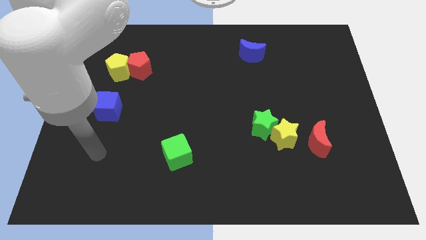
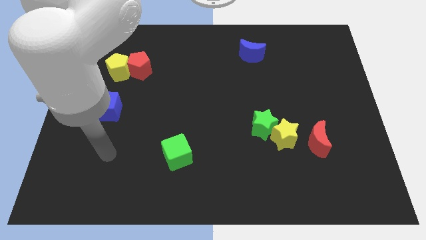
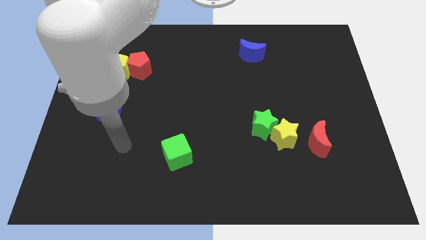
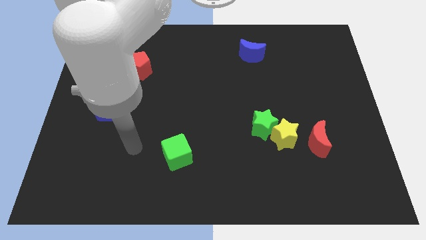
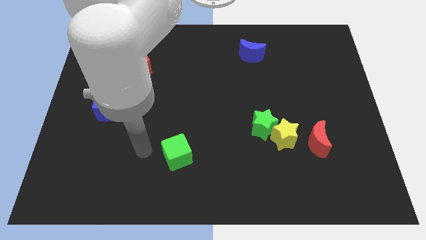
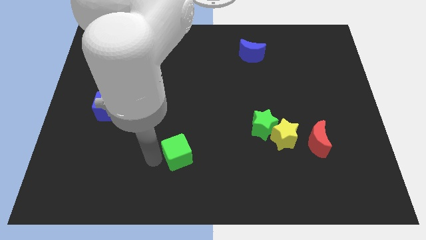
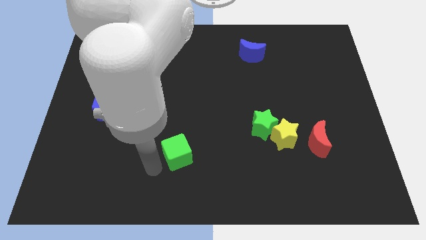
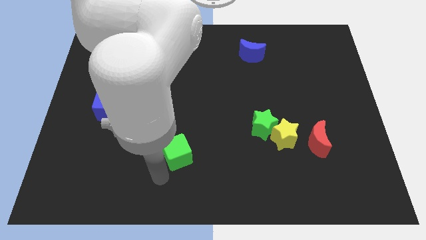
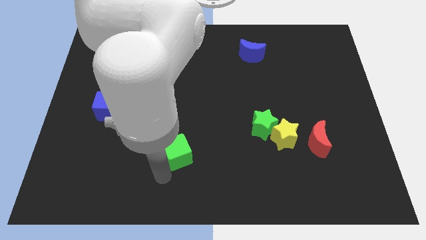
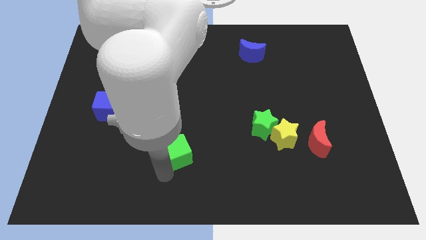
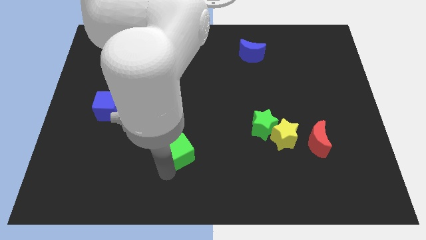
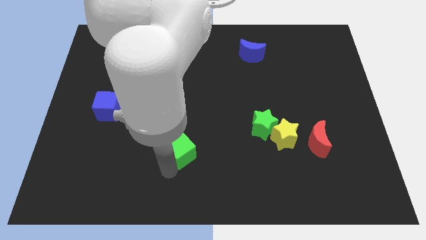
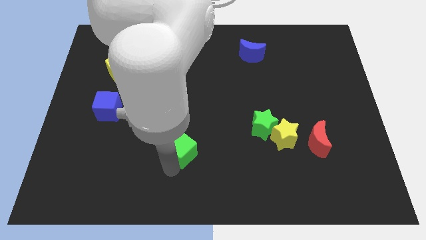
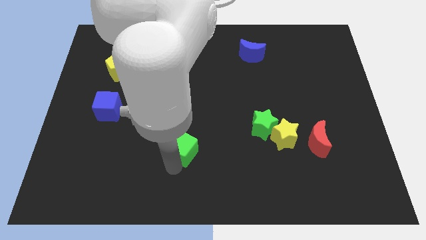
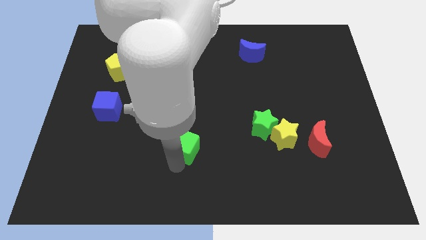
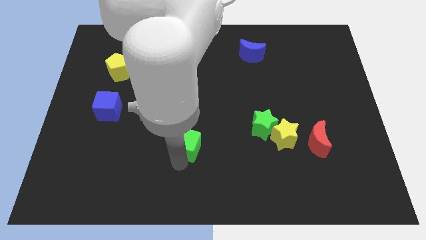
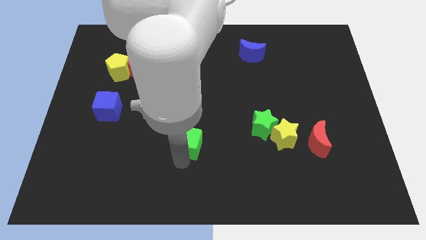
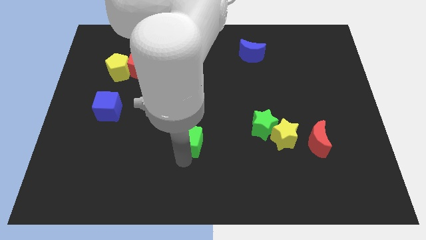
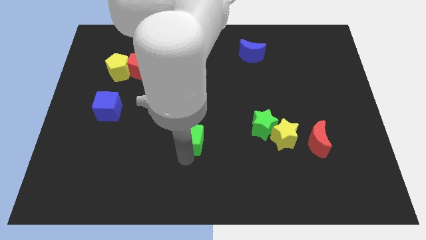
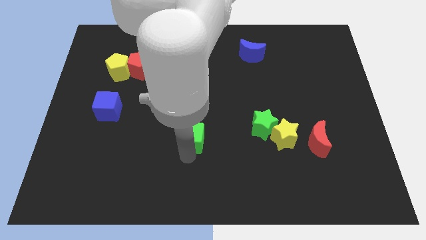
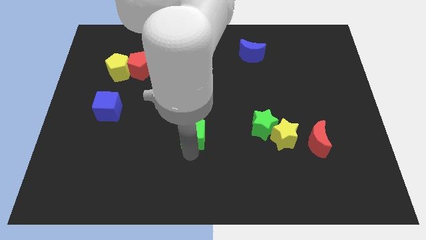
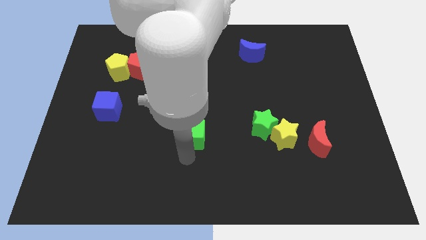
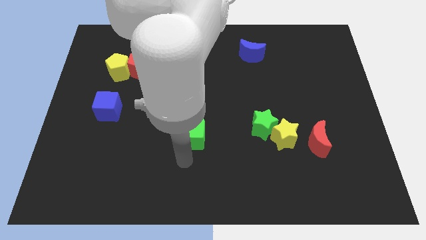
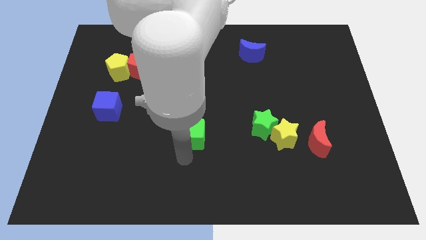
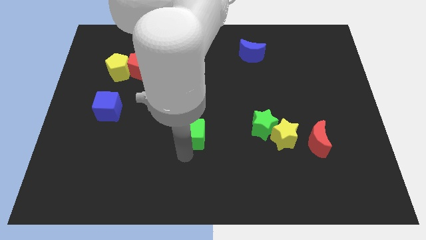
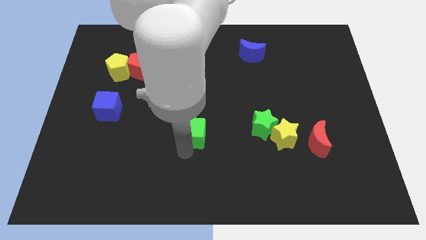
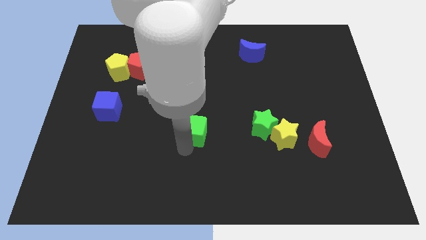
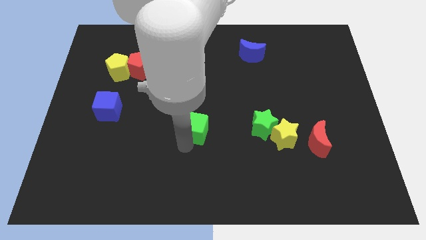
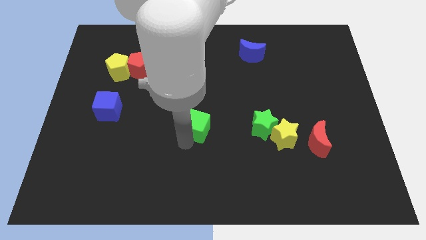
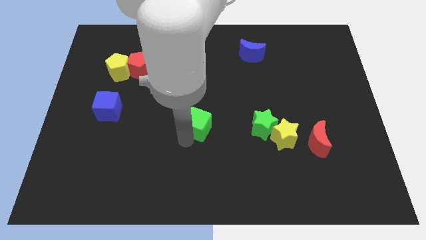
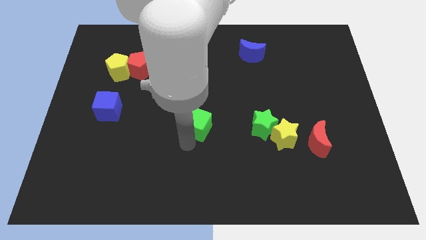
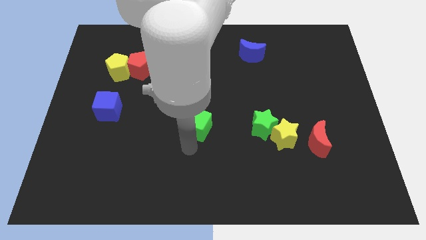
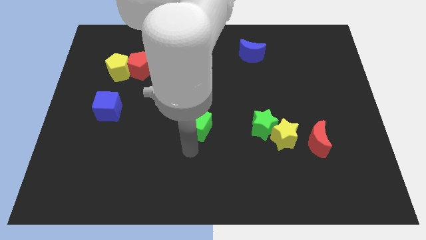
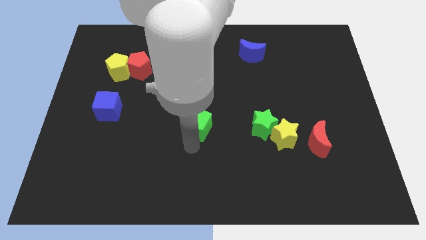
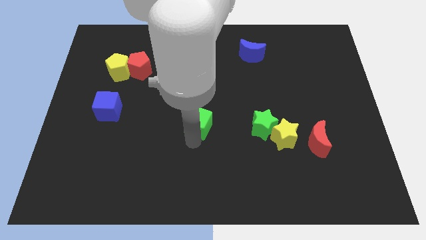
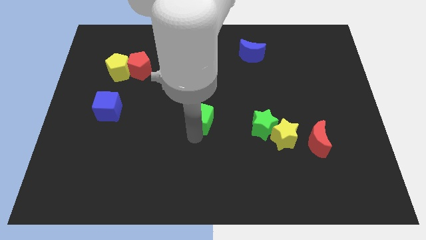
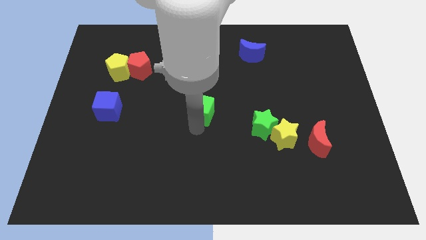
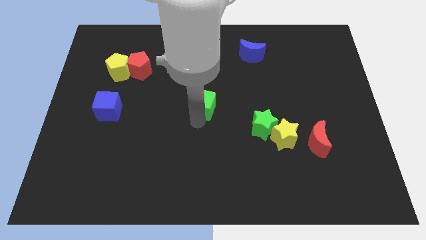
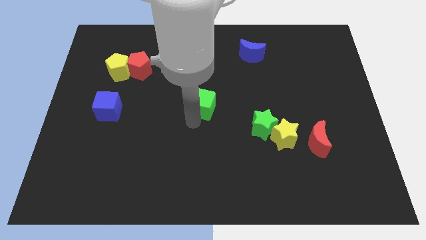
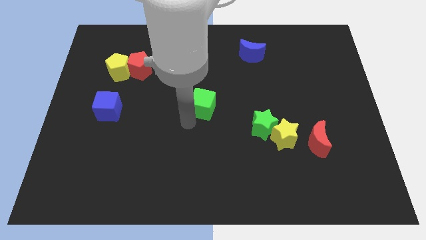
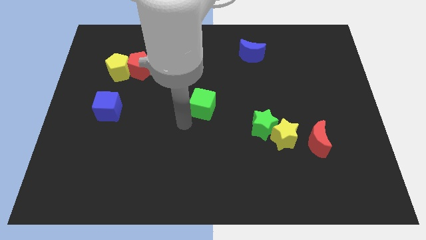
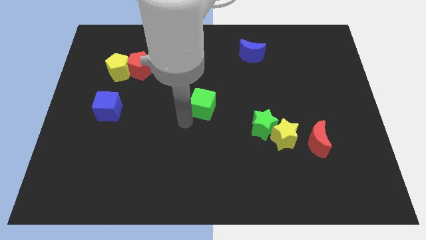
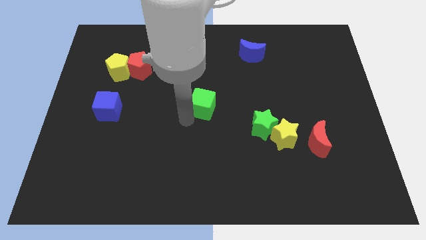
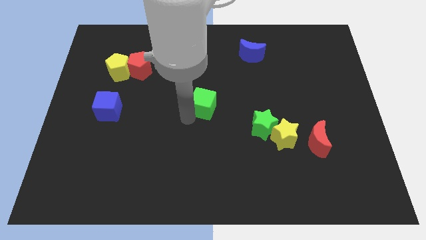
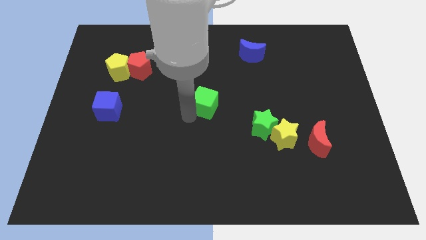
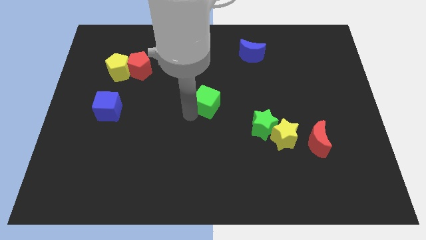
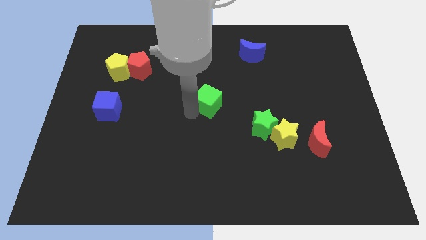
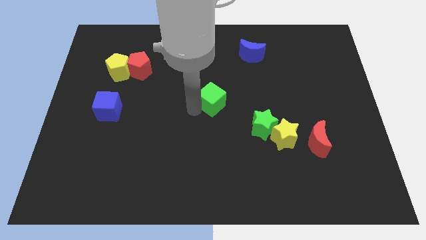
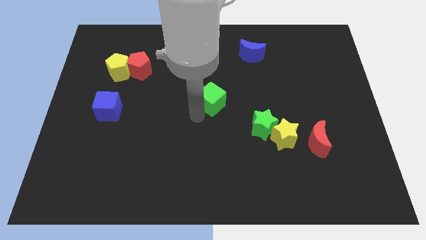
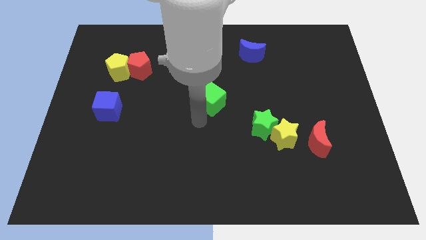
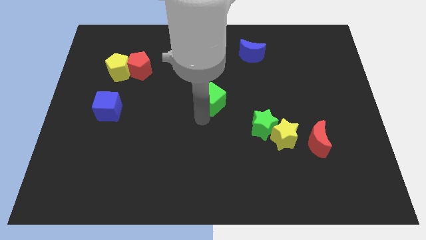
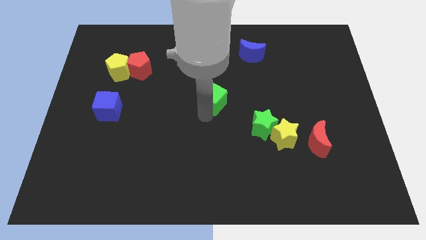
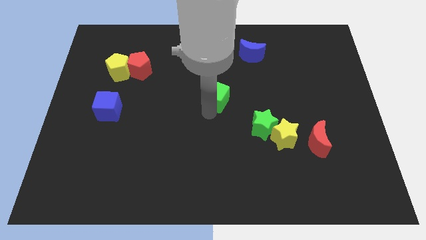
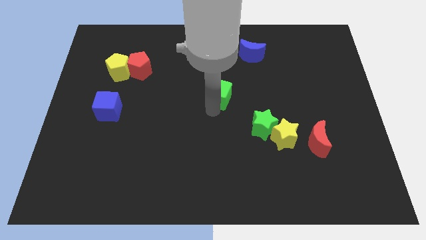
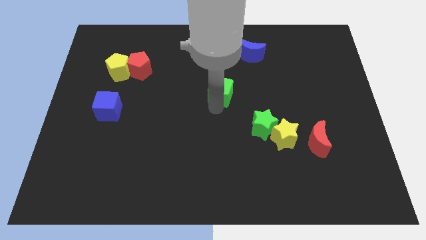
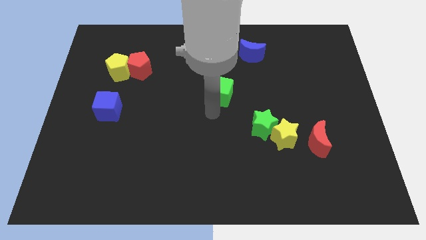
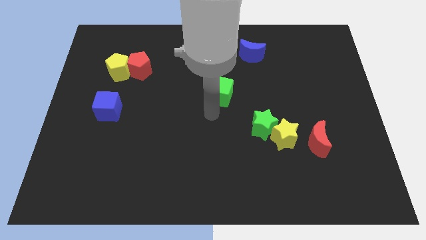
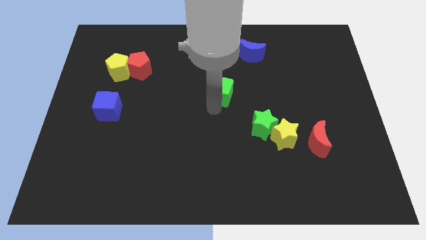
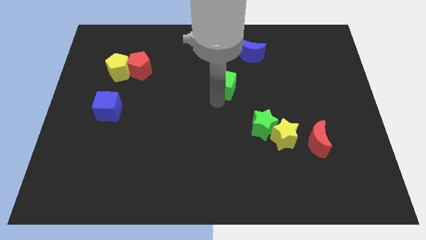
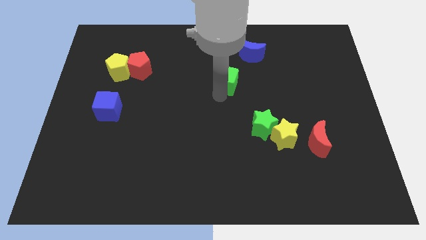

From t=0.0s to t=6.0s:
slide the green cube to the bottom left of the blue moon

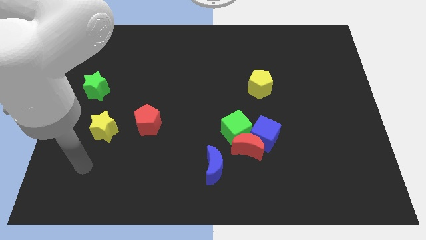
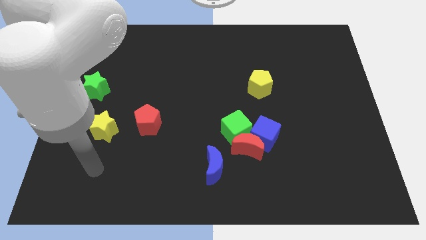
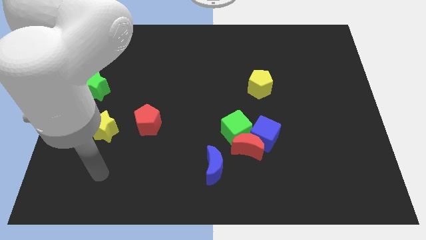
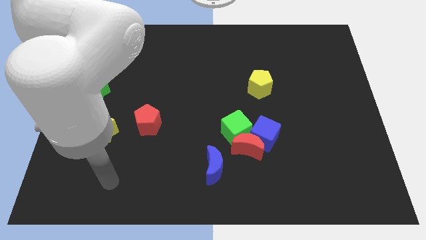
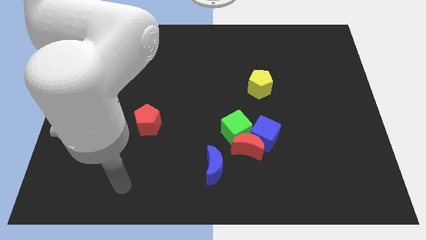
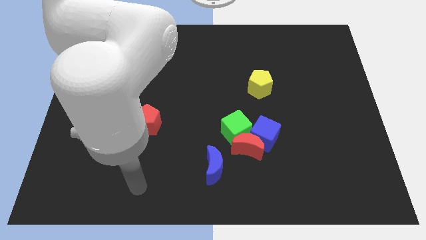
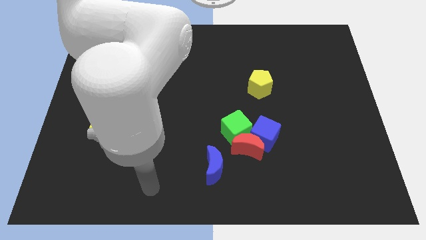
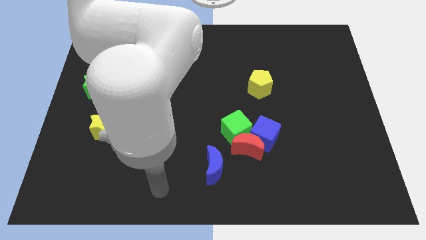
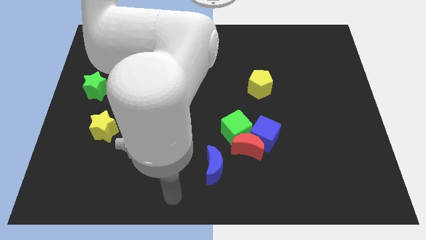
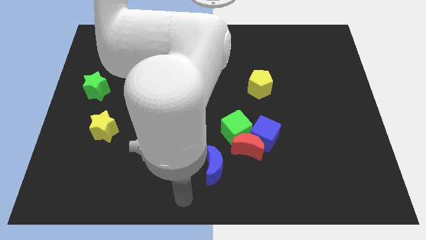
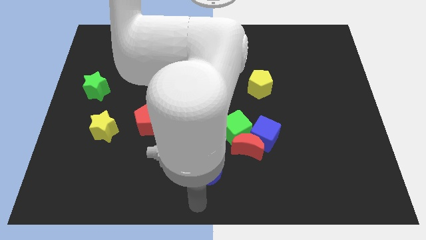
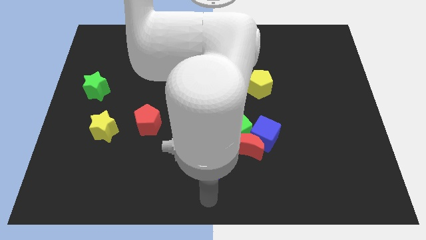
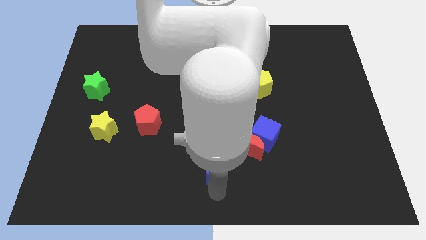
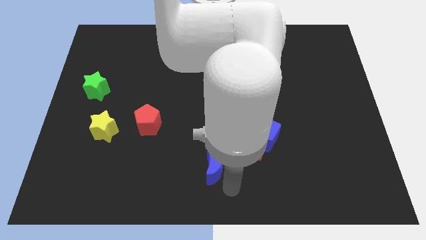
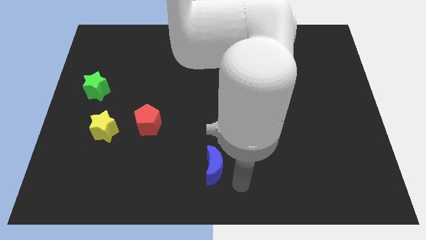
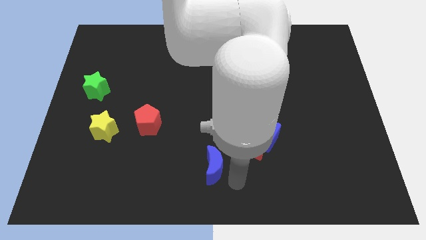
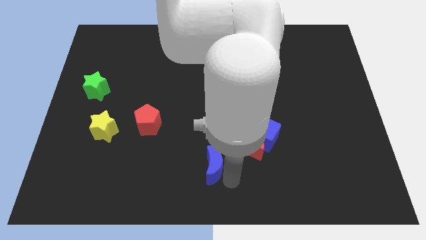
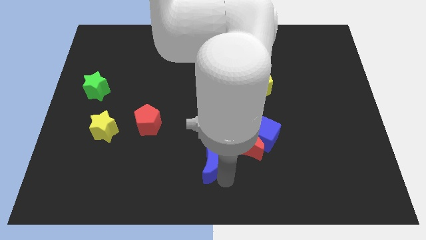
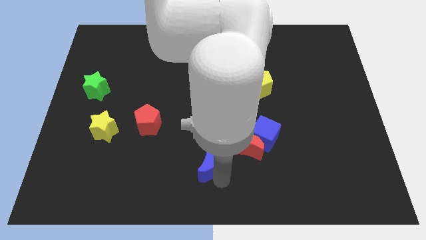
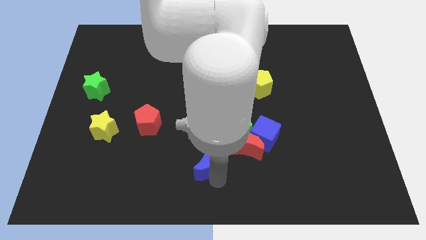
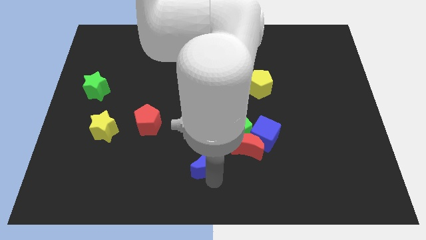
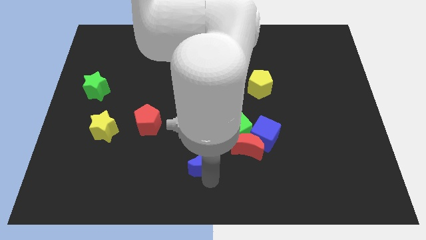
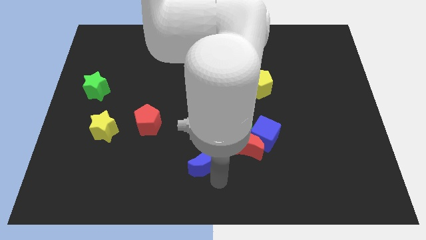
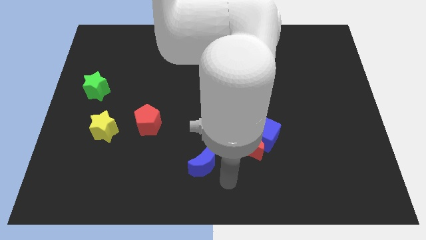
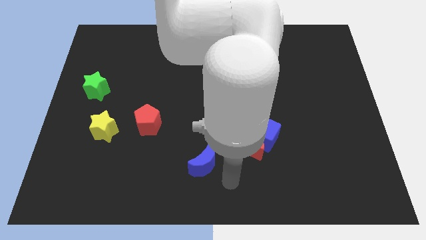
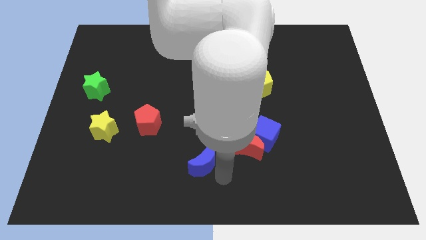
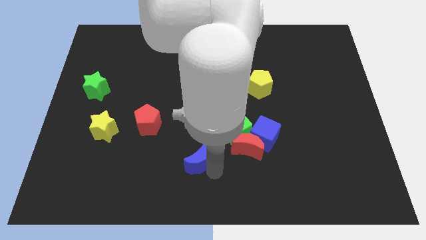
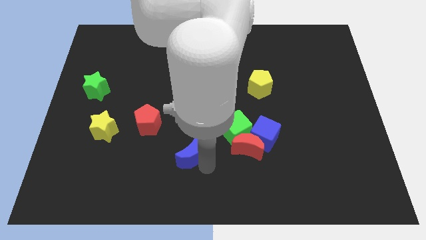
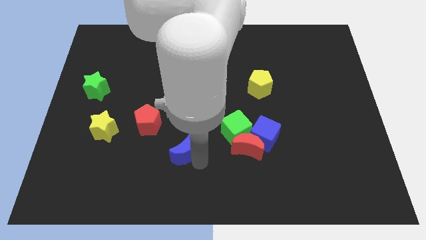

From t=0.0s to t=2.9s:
put the blue moon to the bottom right side of the red pentagon
